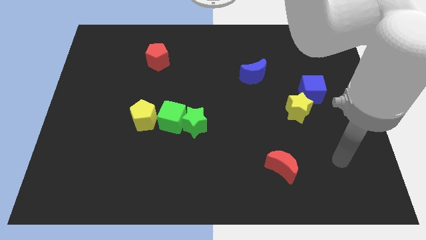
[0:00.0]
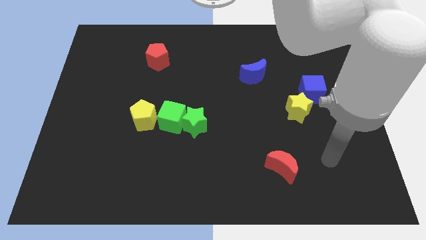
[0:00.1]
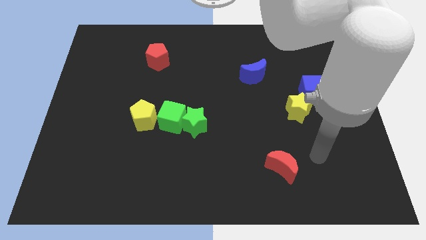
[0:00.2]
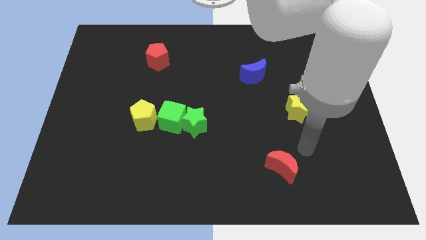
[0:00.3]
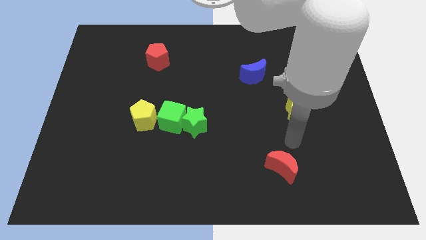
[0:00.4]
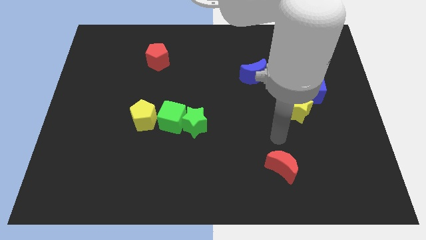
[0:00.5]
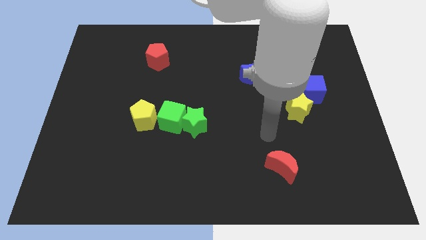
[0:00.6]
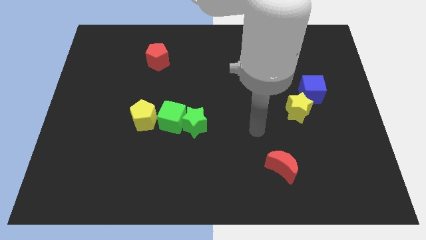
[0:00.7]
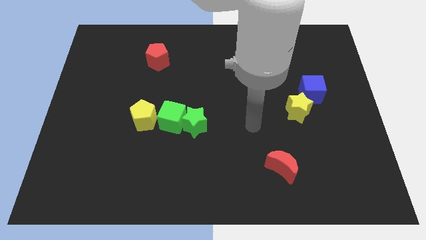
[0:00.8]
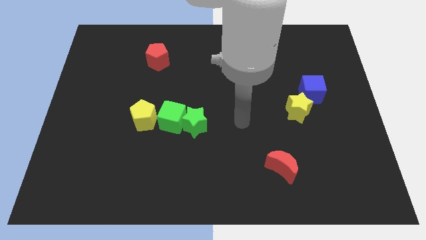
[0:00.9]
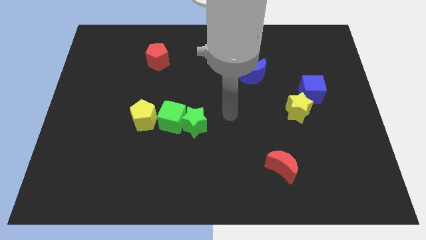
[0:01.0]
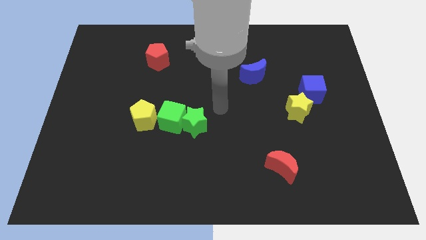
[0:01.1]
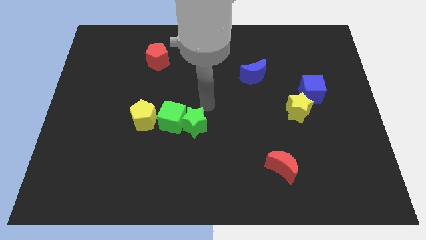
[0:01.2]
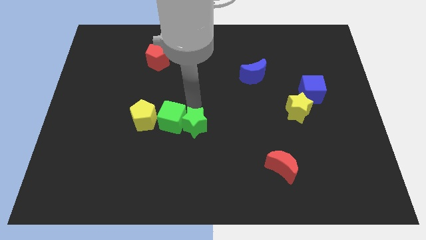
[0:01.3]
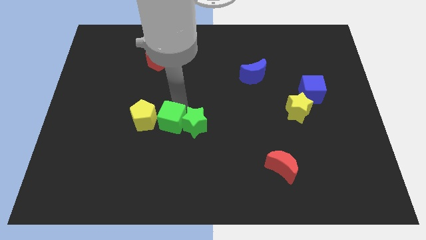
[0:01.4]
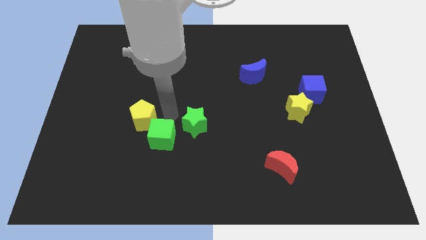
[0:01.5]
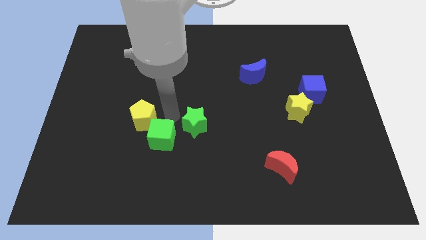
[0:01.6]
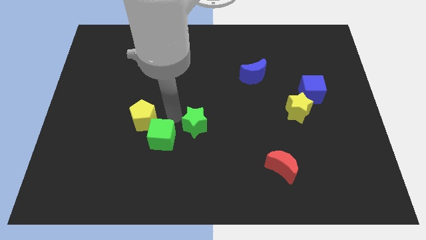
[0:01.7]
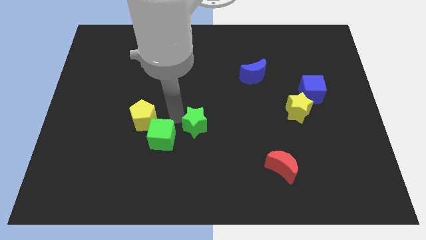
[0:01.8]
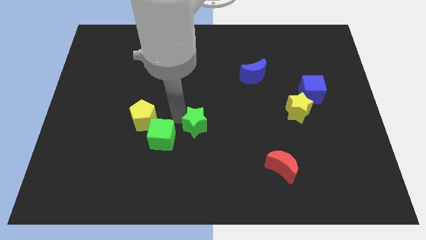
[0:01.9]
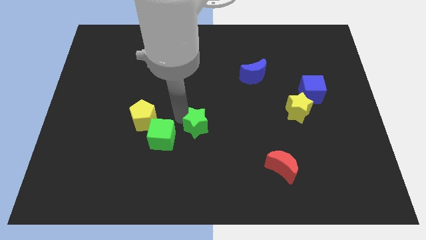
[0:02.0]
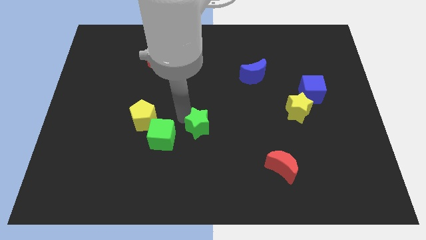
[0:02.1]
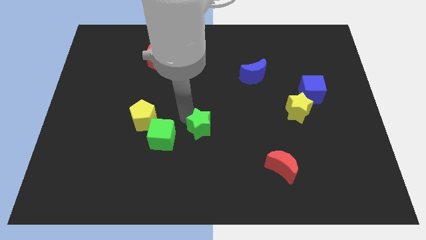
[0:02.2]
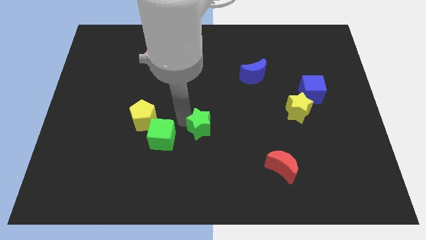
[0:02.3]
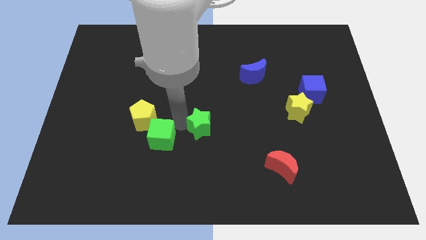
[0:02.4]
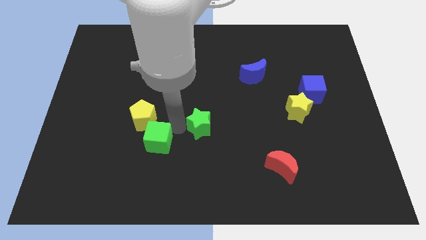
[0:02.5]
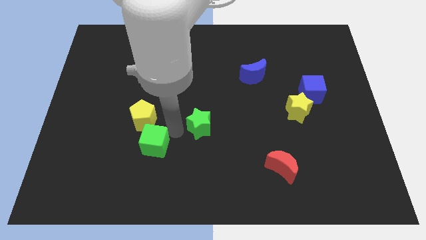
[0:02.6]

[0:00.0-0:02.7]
separate the green star from the green cube

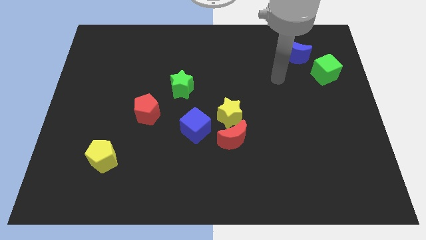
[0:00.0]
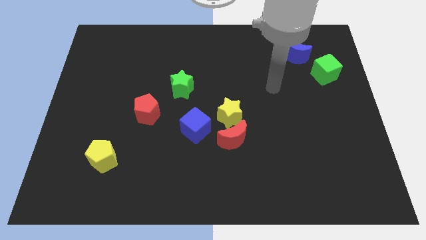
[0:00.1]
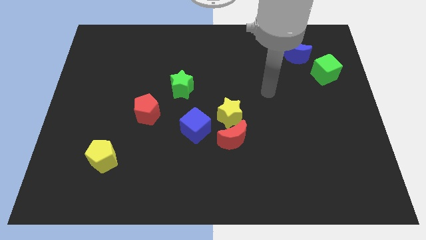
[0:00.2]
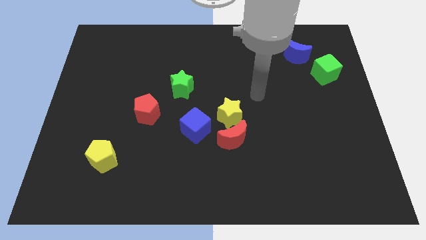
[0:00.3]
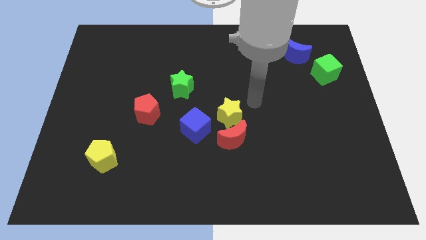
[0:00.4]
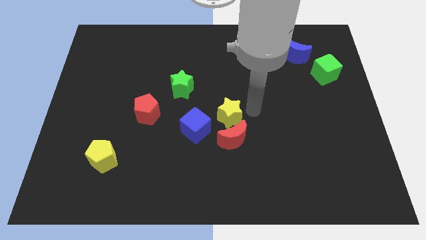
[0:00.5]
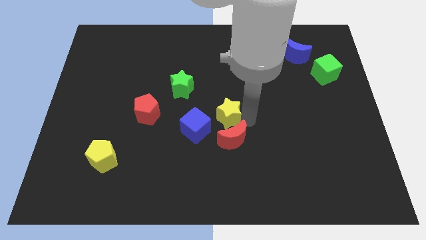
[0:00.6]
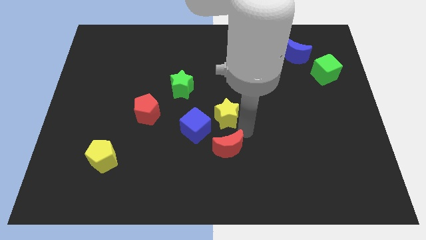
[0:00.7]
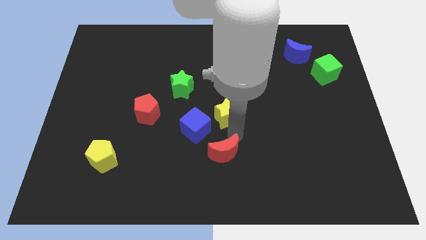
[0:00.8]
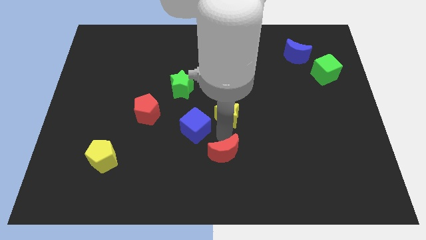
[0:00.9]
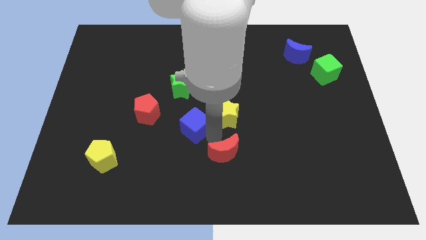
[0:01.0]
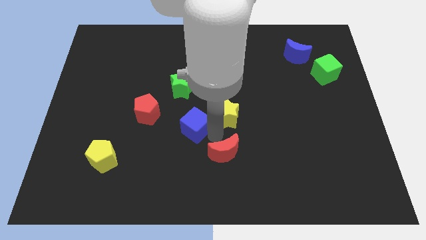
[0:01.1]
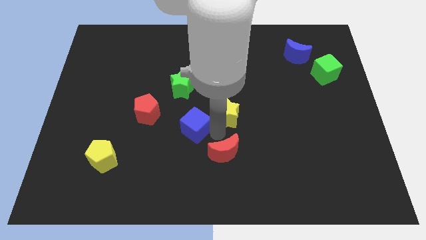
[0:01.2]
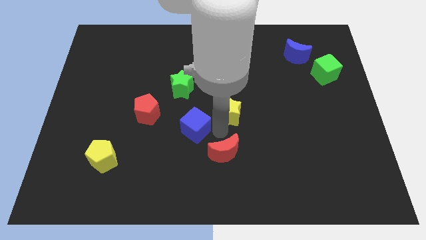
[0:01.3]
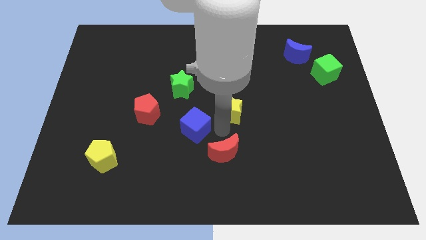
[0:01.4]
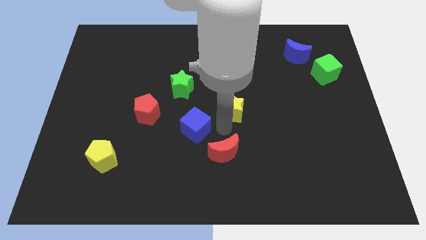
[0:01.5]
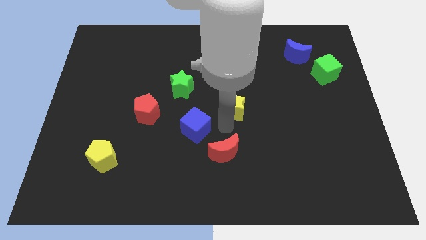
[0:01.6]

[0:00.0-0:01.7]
pull the yellow star apart from the red moon and blue cube

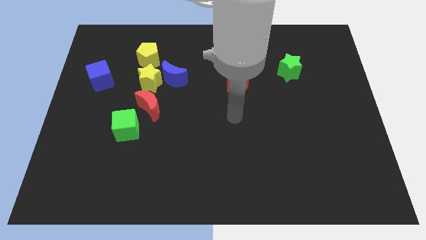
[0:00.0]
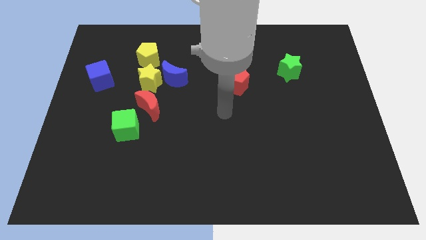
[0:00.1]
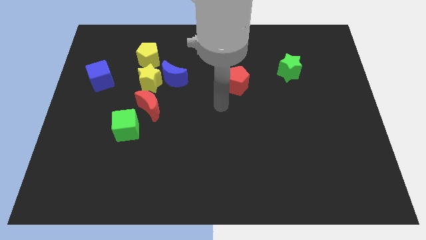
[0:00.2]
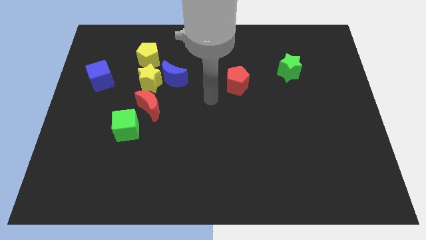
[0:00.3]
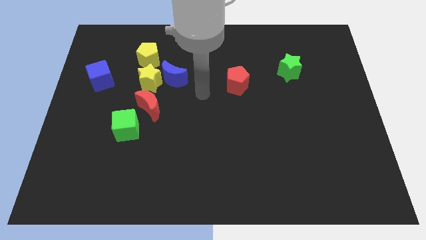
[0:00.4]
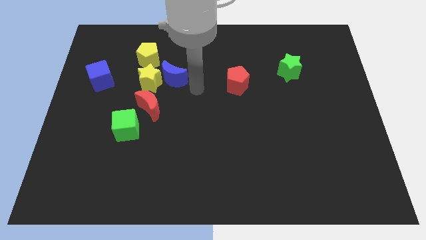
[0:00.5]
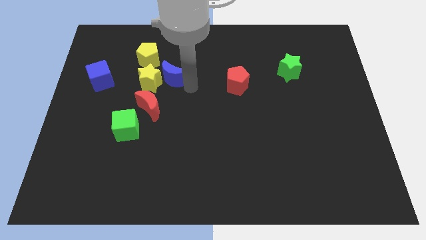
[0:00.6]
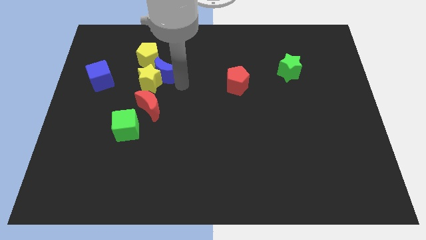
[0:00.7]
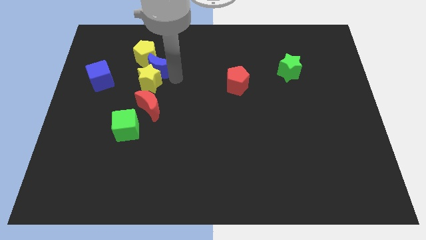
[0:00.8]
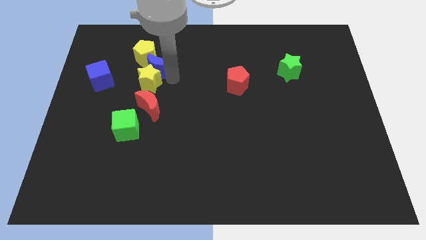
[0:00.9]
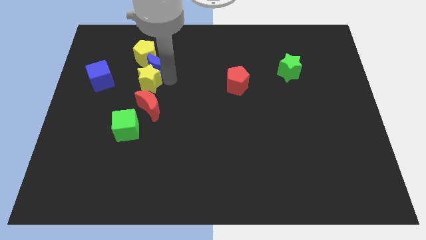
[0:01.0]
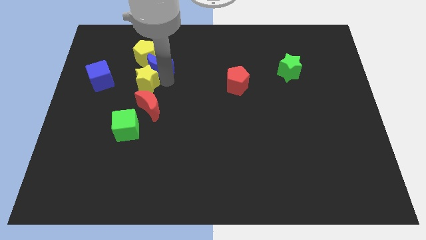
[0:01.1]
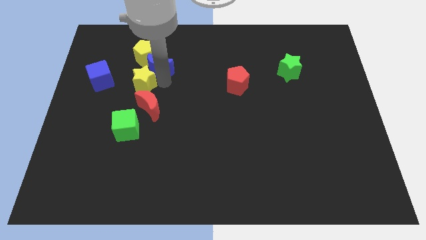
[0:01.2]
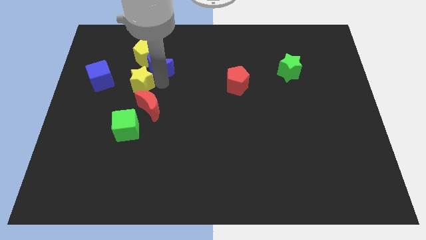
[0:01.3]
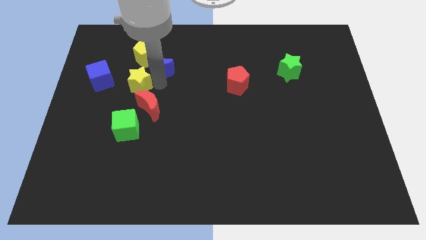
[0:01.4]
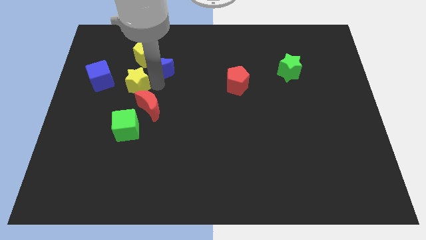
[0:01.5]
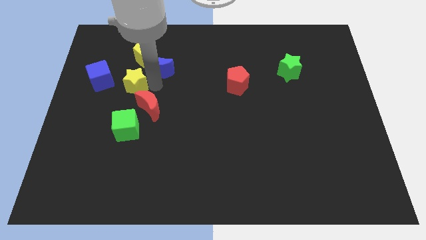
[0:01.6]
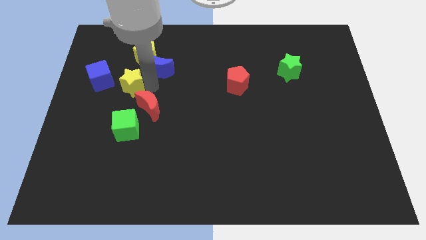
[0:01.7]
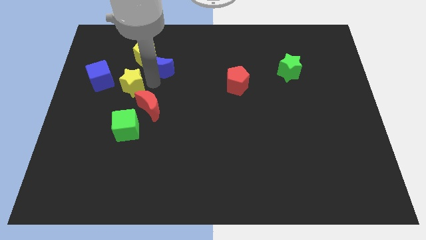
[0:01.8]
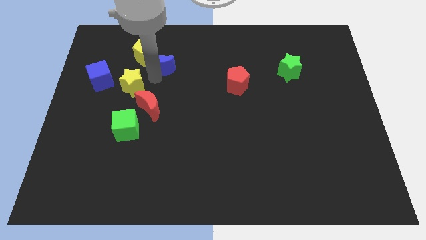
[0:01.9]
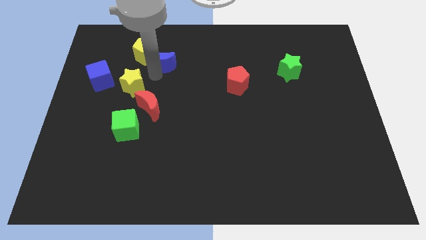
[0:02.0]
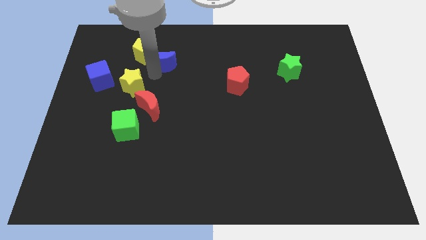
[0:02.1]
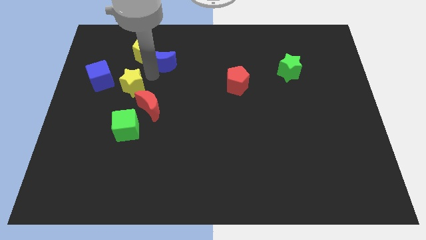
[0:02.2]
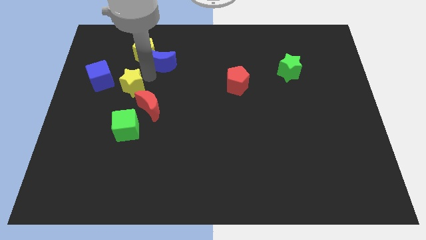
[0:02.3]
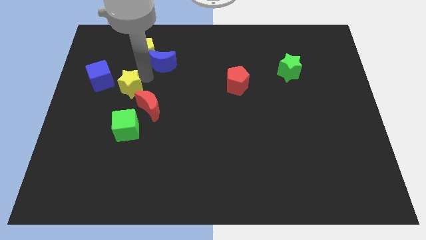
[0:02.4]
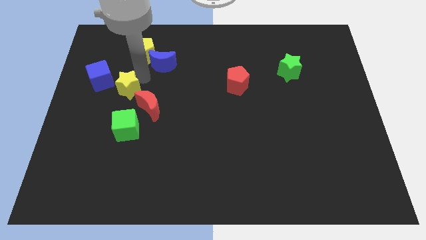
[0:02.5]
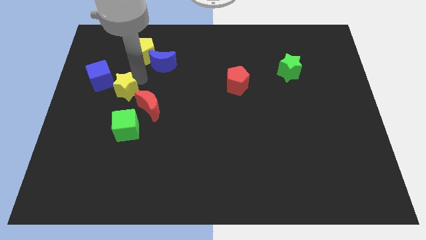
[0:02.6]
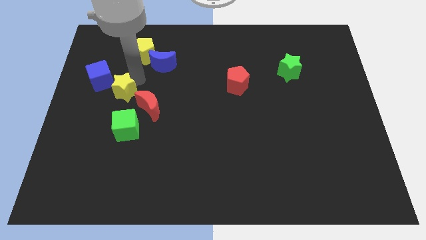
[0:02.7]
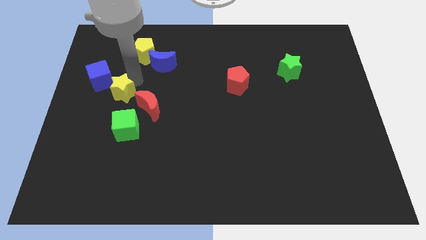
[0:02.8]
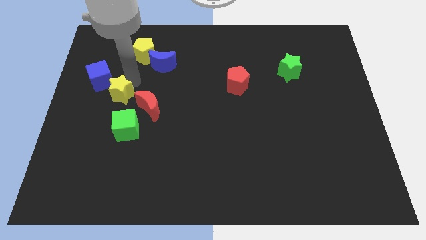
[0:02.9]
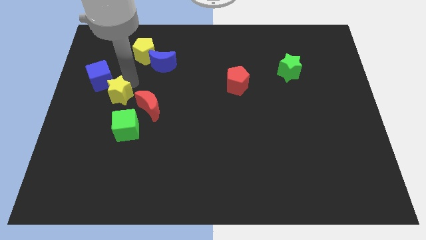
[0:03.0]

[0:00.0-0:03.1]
move the yellow star away from the group of blocks

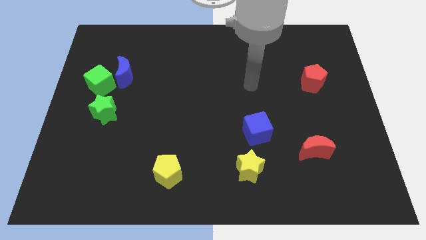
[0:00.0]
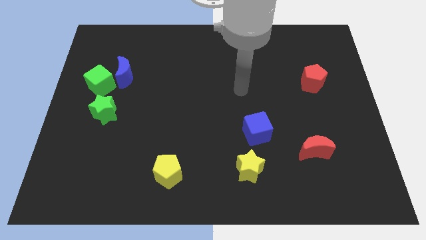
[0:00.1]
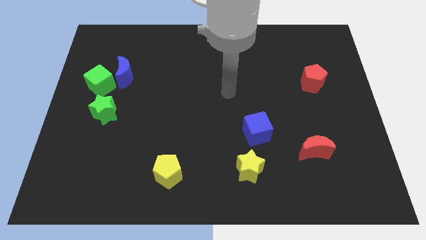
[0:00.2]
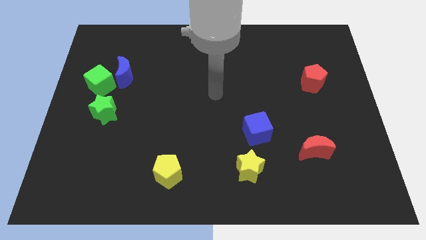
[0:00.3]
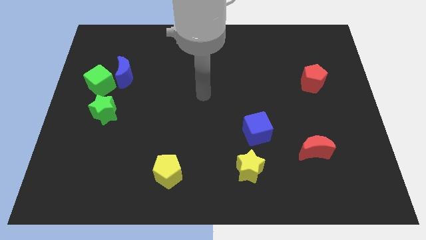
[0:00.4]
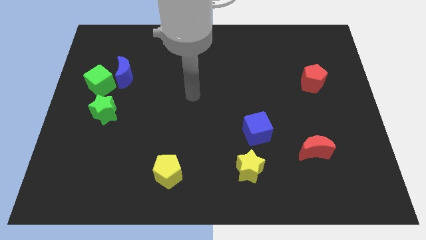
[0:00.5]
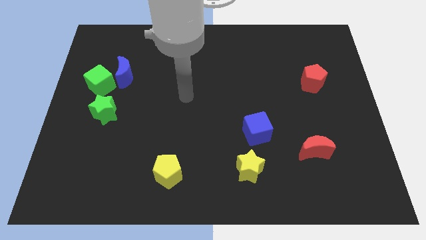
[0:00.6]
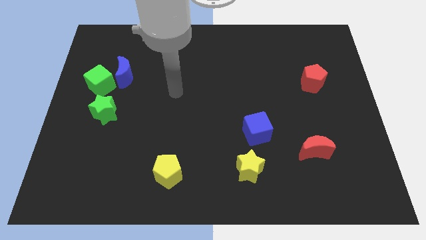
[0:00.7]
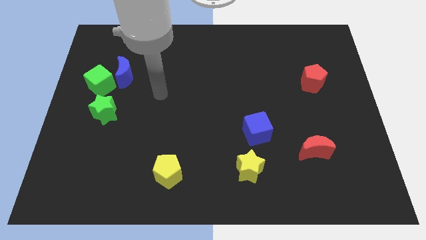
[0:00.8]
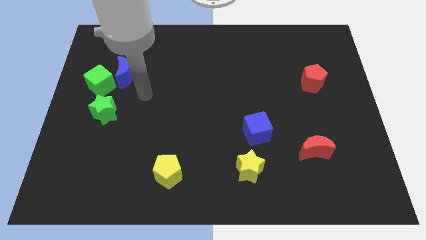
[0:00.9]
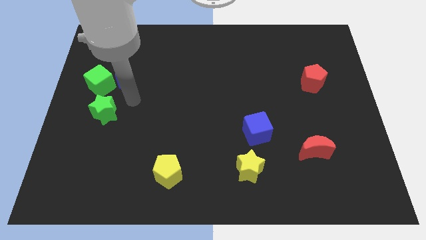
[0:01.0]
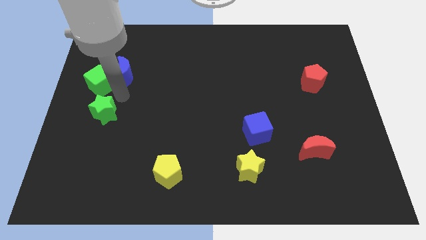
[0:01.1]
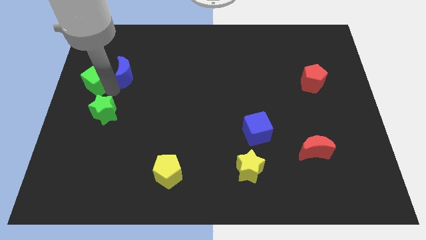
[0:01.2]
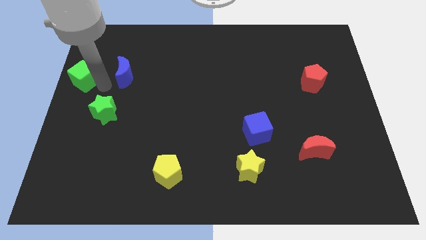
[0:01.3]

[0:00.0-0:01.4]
pull the blue moon apart from the green cube

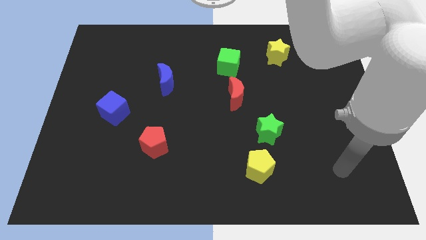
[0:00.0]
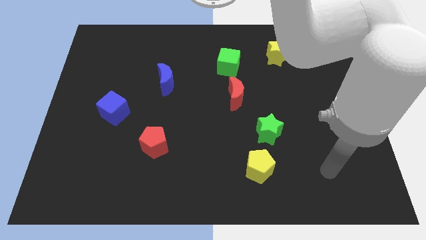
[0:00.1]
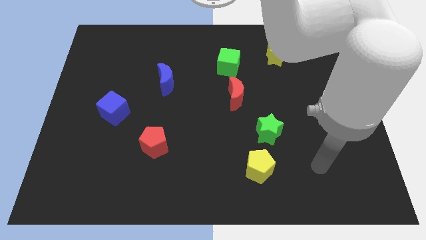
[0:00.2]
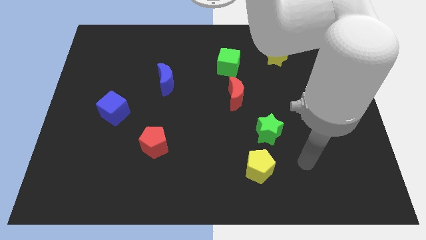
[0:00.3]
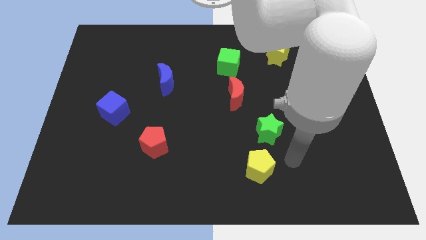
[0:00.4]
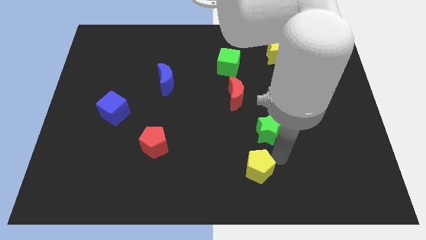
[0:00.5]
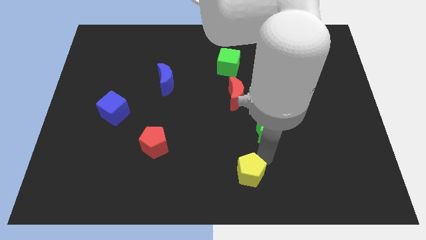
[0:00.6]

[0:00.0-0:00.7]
separate the green star from the yellow pentagon
